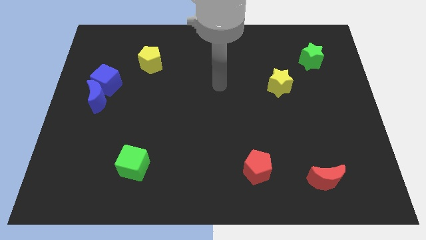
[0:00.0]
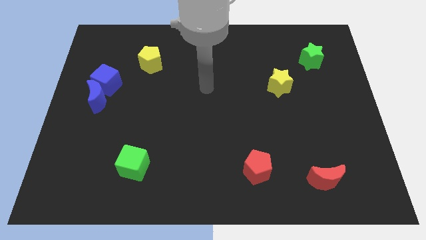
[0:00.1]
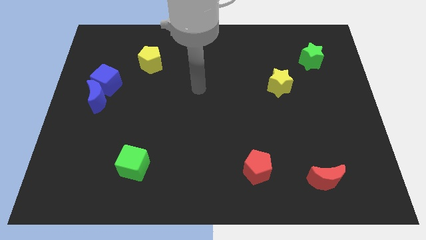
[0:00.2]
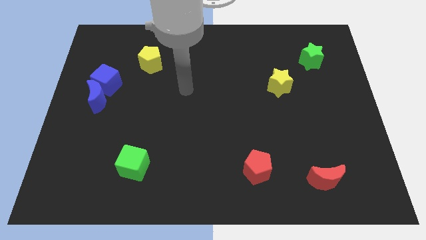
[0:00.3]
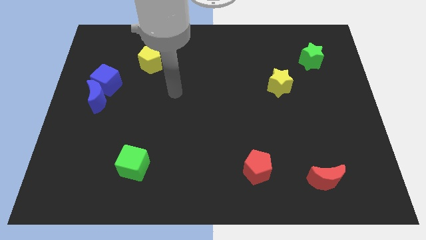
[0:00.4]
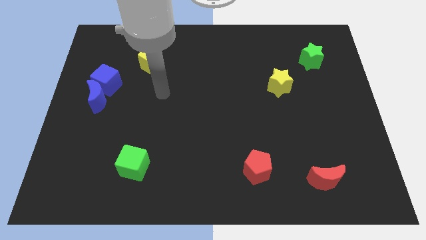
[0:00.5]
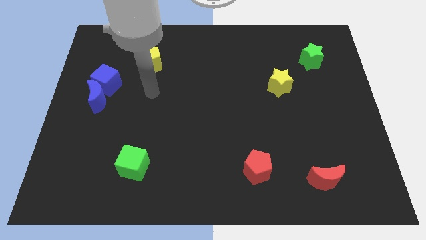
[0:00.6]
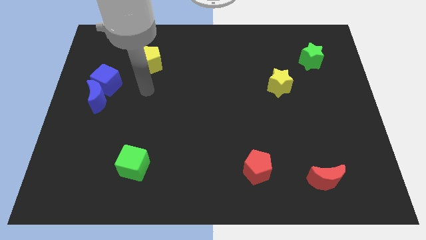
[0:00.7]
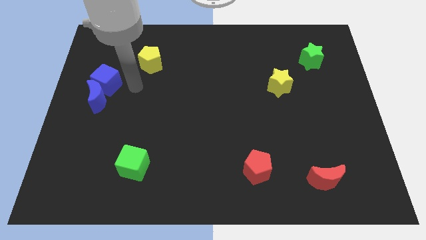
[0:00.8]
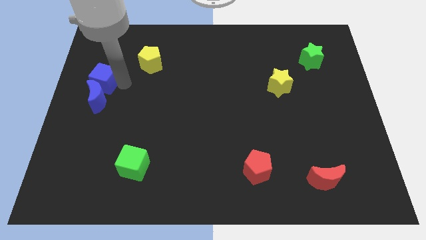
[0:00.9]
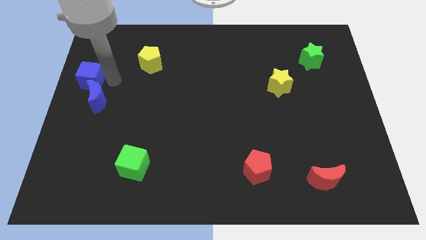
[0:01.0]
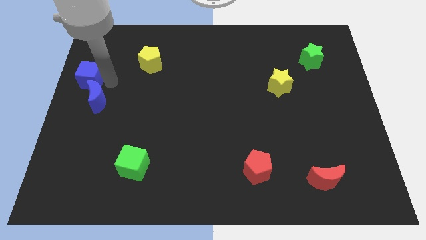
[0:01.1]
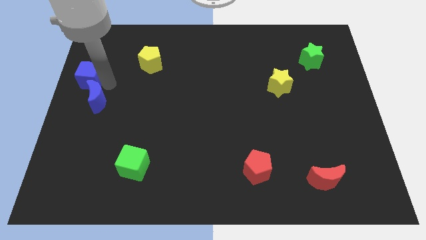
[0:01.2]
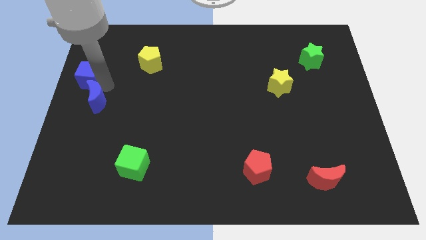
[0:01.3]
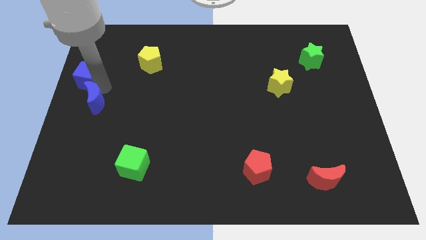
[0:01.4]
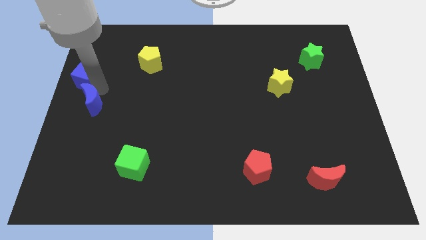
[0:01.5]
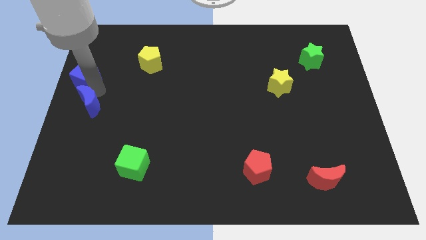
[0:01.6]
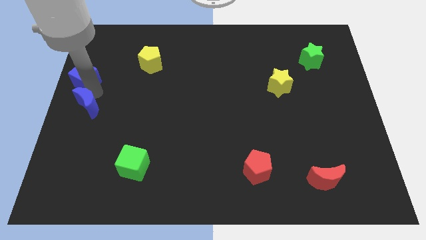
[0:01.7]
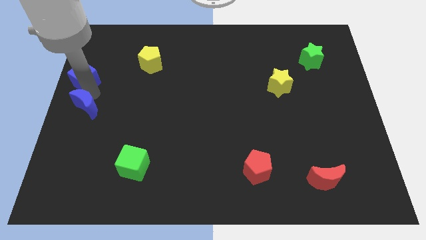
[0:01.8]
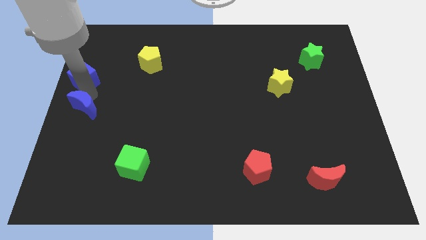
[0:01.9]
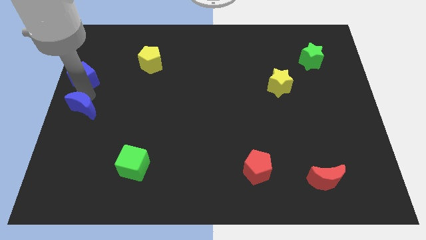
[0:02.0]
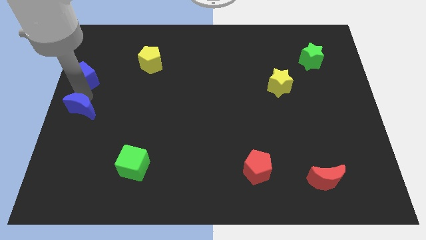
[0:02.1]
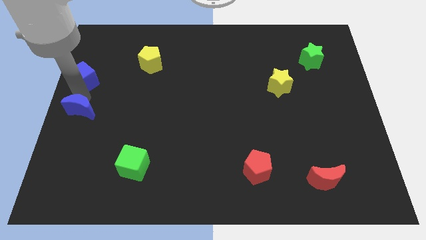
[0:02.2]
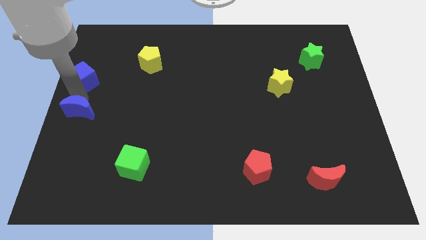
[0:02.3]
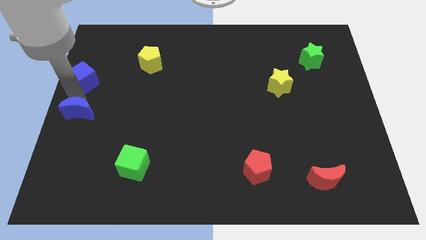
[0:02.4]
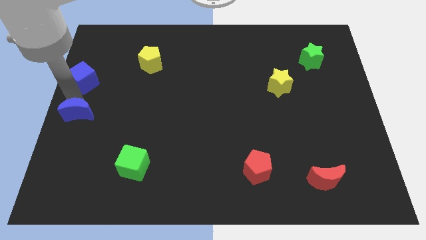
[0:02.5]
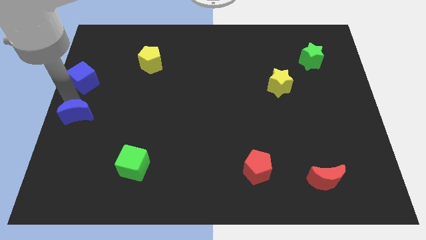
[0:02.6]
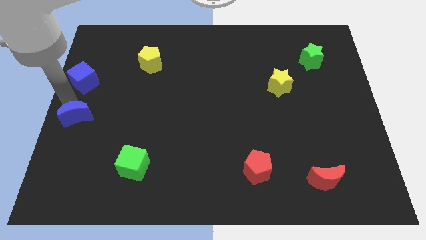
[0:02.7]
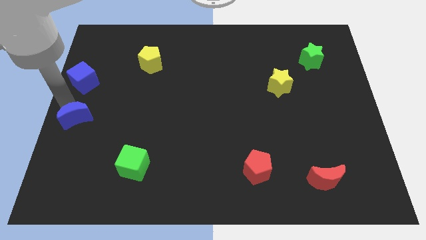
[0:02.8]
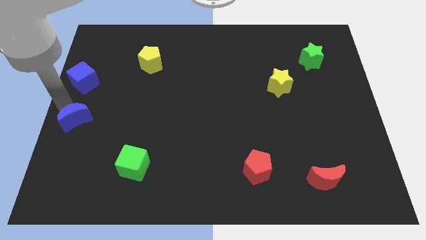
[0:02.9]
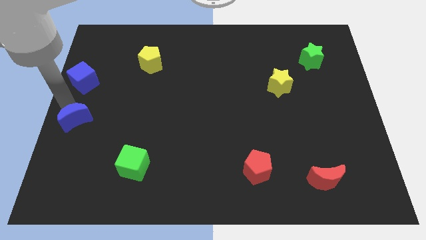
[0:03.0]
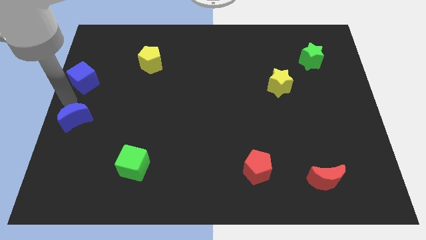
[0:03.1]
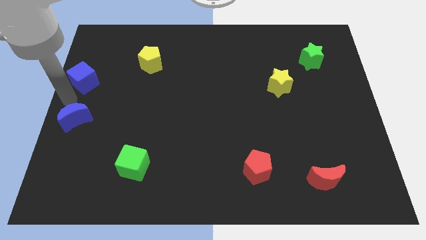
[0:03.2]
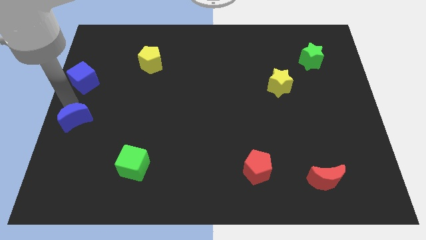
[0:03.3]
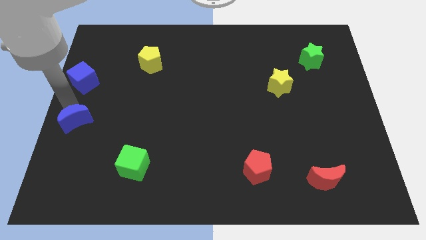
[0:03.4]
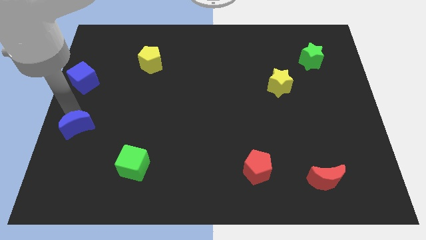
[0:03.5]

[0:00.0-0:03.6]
slightly push the blue moon downwards

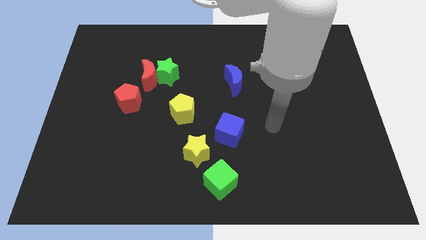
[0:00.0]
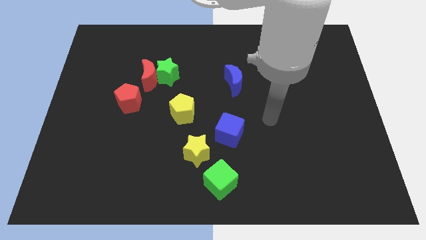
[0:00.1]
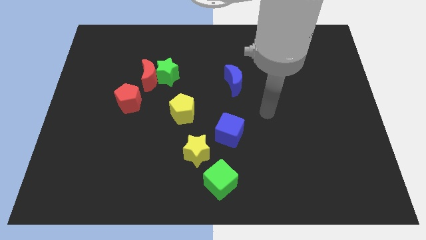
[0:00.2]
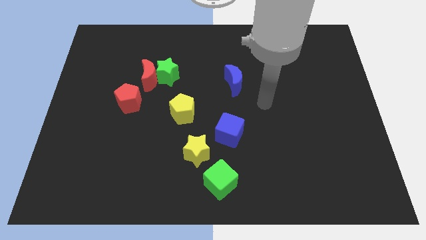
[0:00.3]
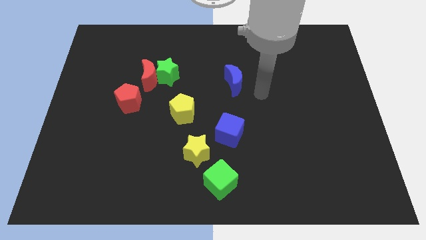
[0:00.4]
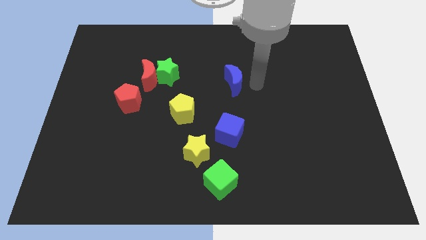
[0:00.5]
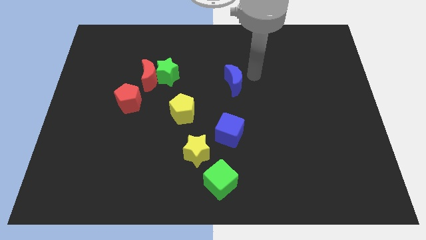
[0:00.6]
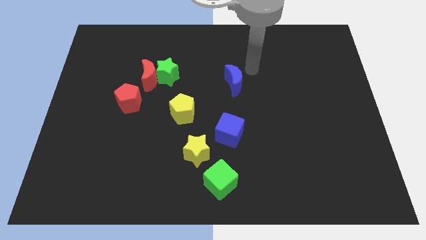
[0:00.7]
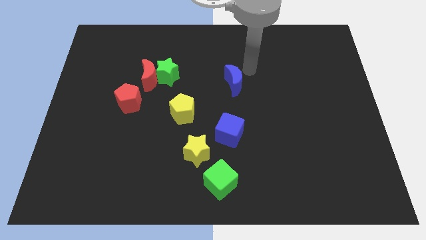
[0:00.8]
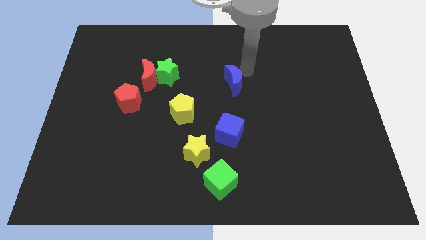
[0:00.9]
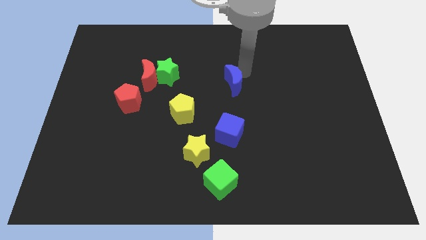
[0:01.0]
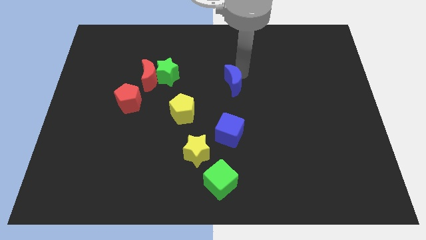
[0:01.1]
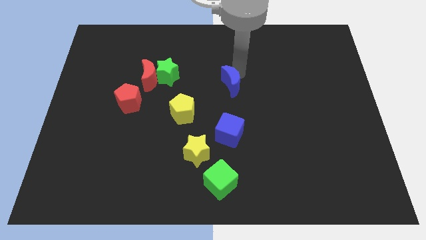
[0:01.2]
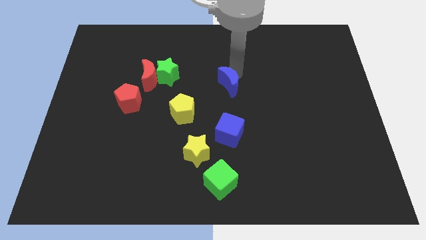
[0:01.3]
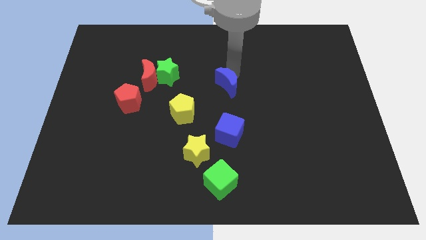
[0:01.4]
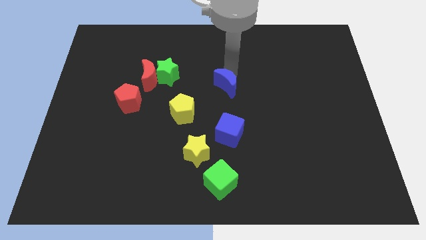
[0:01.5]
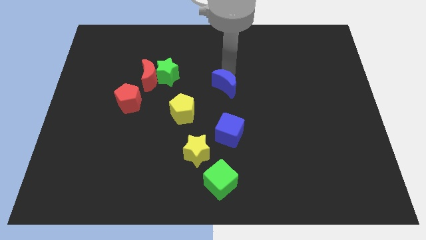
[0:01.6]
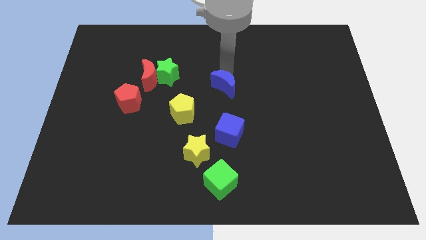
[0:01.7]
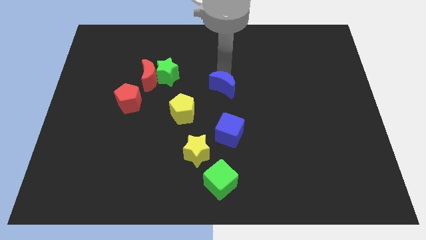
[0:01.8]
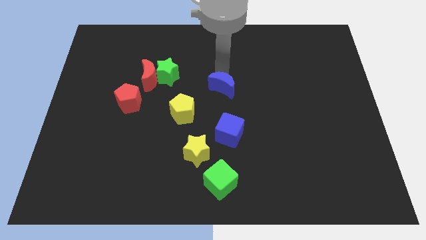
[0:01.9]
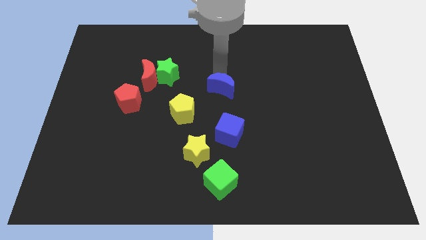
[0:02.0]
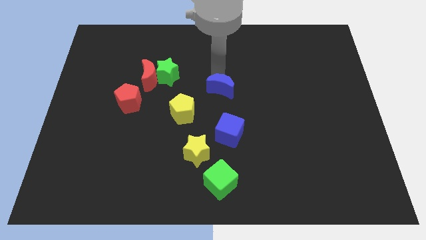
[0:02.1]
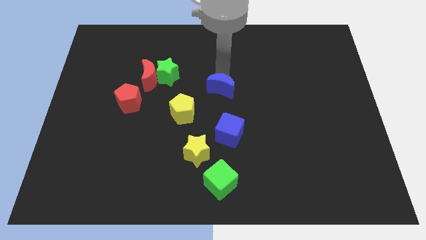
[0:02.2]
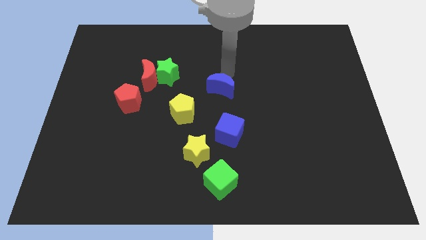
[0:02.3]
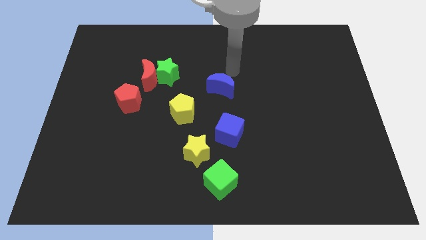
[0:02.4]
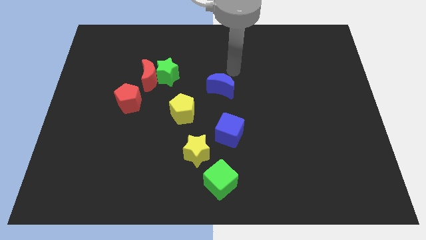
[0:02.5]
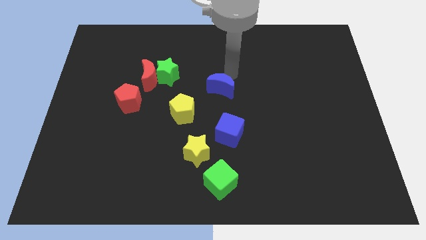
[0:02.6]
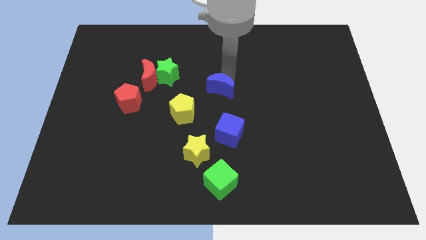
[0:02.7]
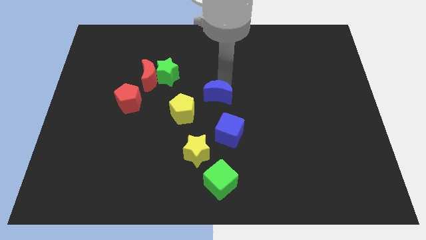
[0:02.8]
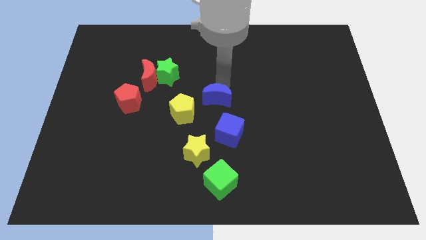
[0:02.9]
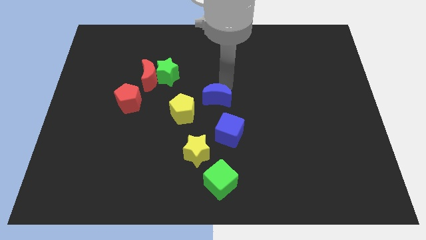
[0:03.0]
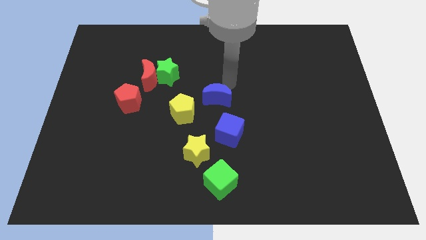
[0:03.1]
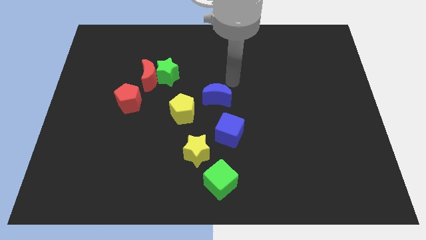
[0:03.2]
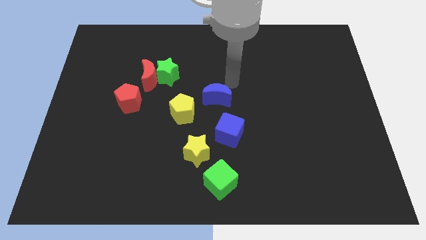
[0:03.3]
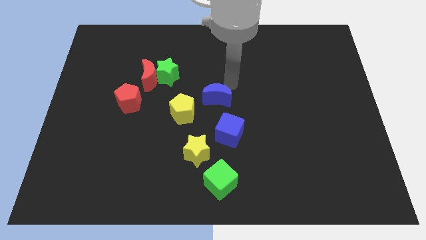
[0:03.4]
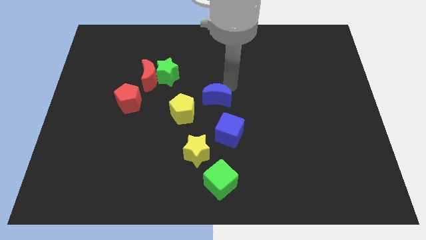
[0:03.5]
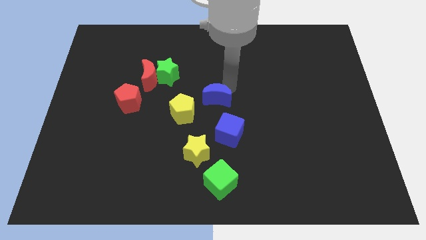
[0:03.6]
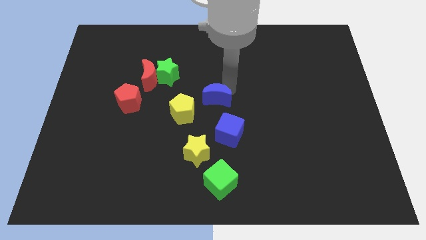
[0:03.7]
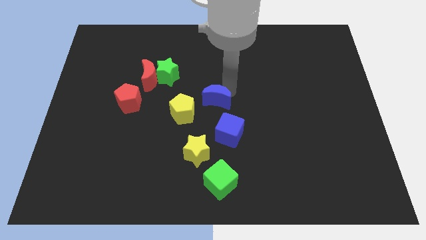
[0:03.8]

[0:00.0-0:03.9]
move the blue moon a bit diagonally downwards and to the left

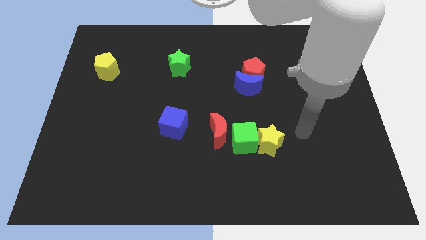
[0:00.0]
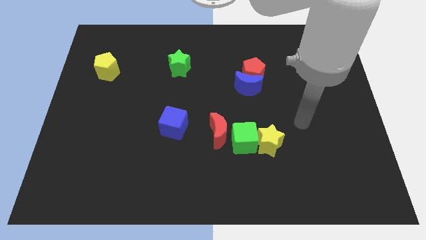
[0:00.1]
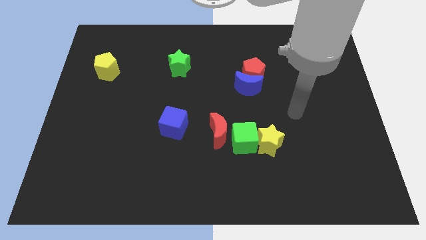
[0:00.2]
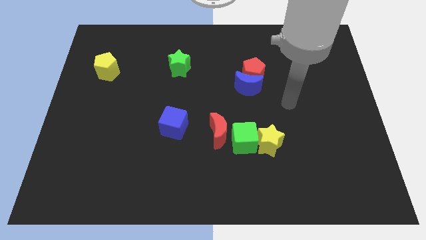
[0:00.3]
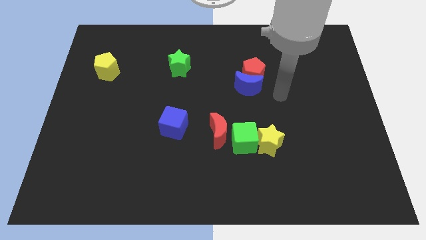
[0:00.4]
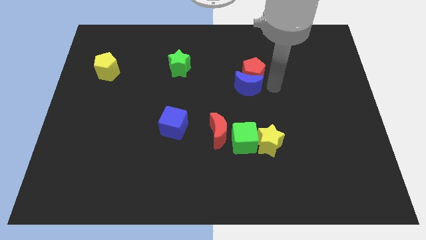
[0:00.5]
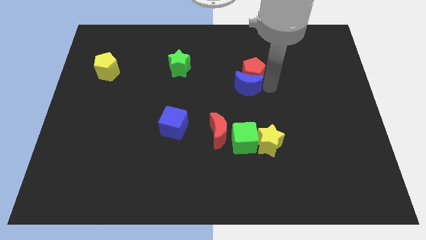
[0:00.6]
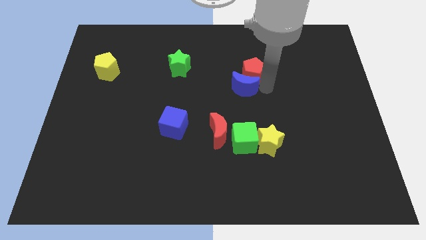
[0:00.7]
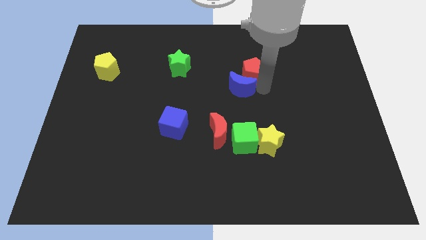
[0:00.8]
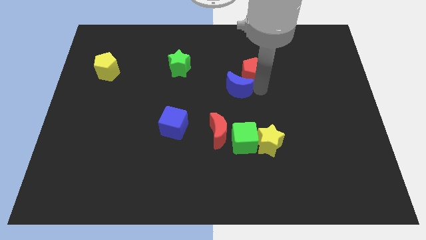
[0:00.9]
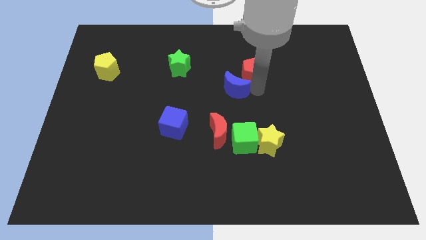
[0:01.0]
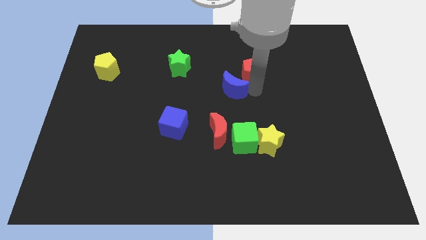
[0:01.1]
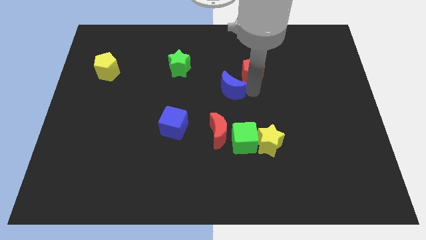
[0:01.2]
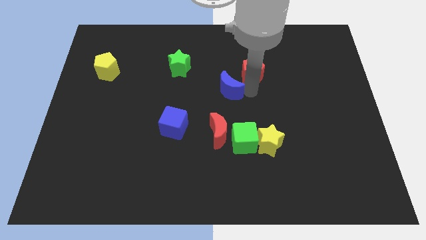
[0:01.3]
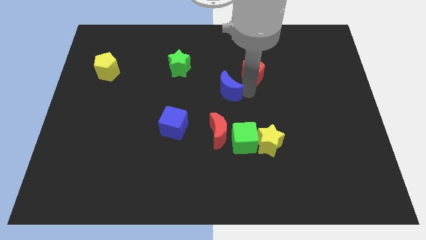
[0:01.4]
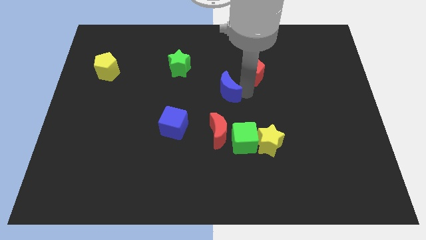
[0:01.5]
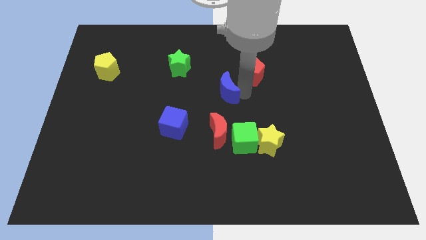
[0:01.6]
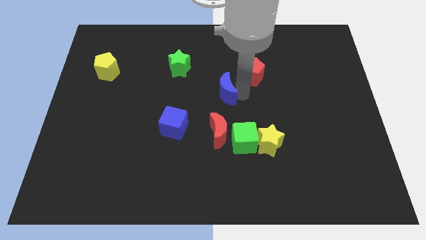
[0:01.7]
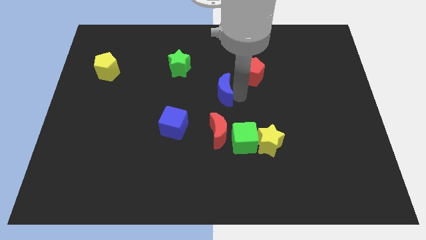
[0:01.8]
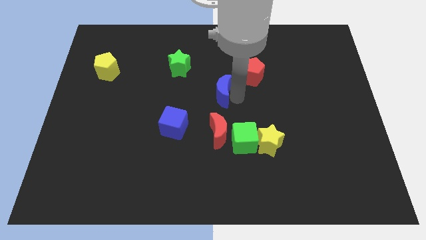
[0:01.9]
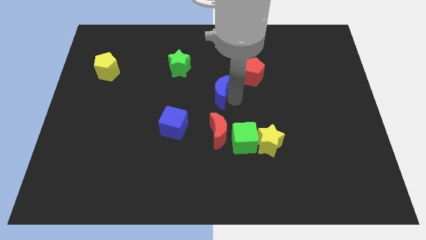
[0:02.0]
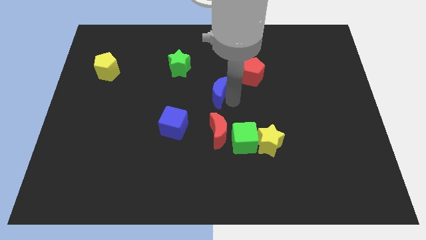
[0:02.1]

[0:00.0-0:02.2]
slightly slide the blue moon left
